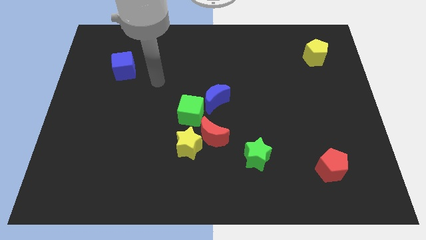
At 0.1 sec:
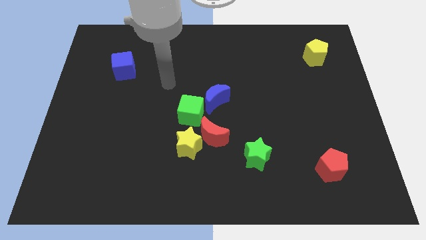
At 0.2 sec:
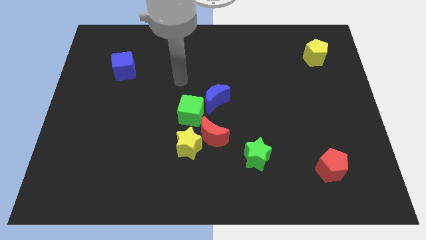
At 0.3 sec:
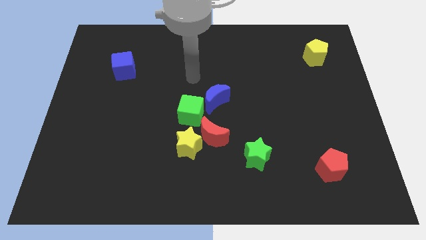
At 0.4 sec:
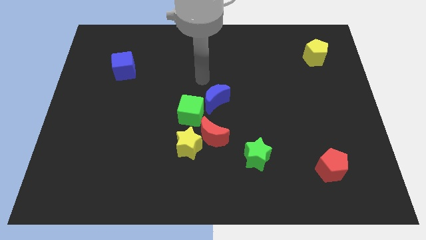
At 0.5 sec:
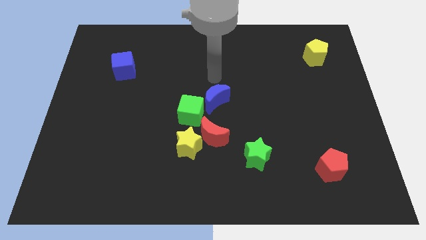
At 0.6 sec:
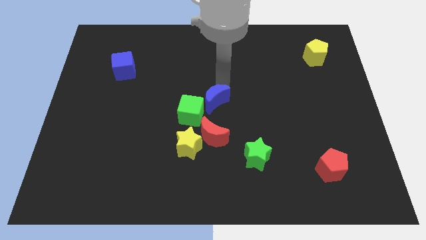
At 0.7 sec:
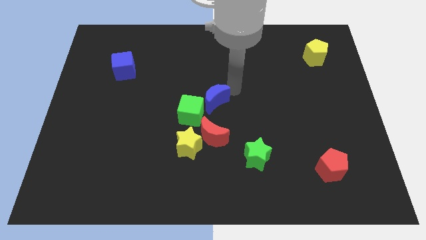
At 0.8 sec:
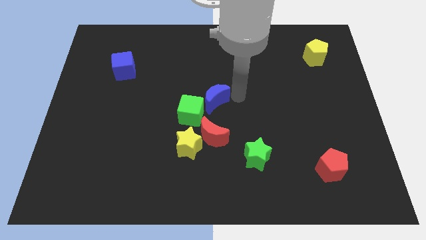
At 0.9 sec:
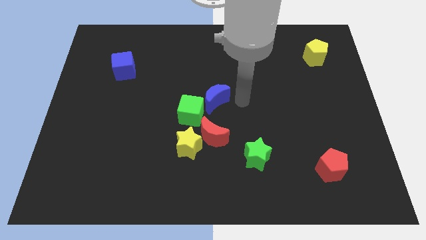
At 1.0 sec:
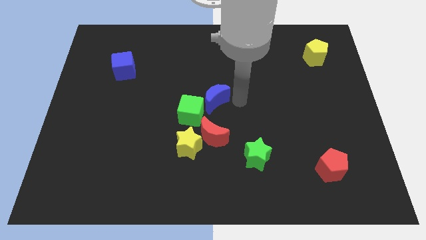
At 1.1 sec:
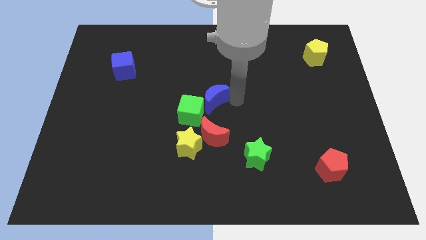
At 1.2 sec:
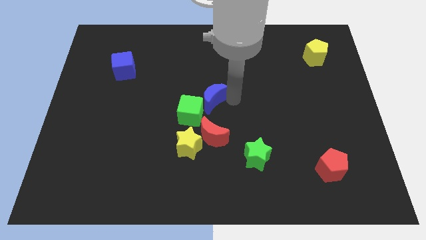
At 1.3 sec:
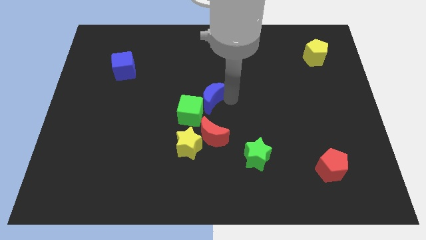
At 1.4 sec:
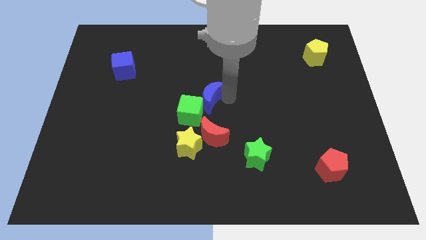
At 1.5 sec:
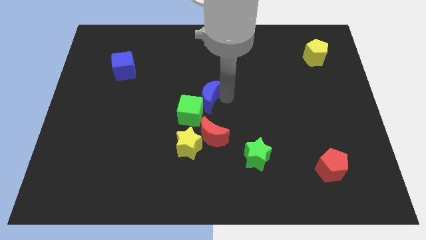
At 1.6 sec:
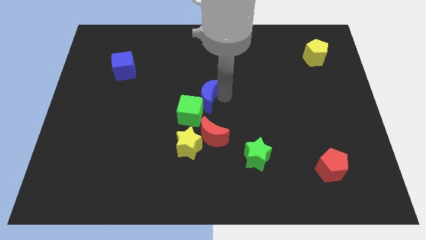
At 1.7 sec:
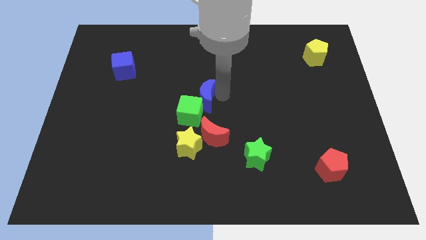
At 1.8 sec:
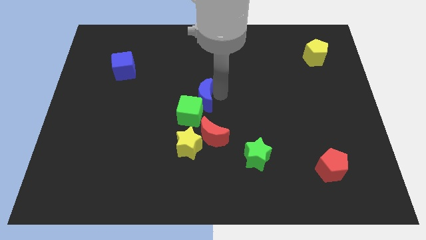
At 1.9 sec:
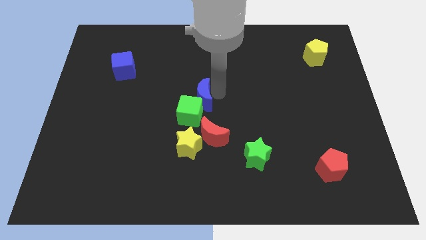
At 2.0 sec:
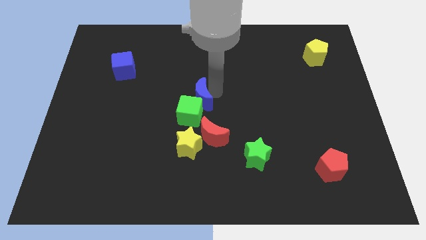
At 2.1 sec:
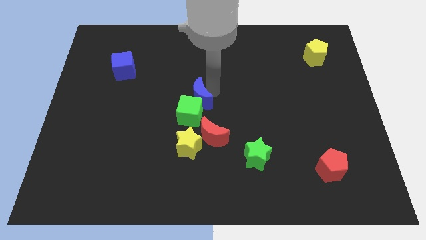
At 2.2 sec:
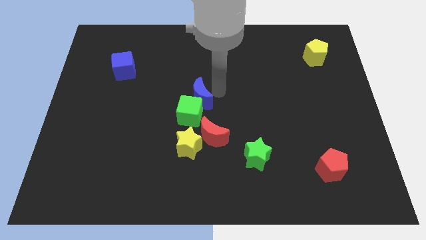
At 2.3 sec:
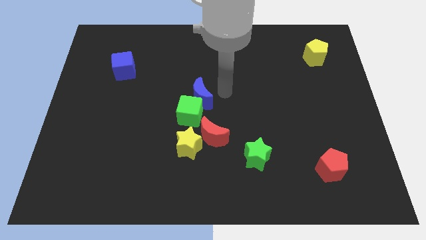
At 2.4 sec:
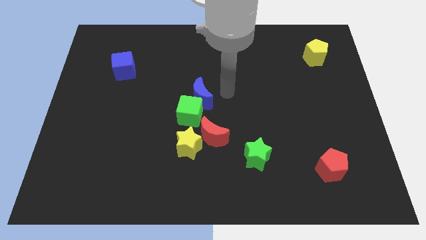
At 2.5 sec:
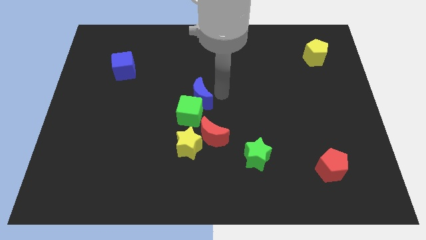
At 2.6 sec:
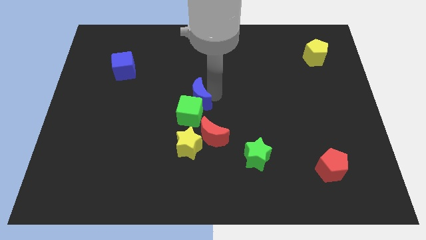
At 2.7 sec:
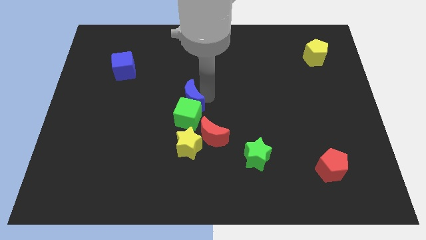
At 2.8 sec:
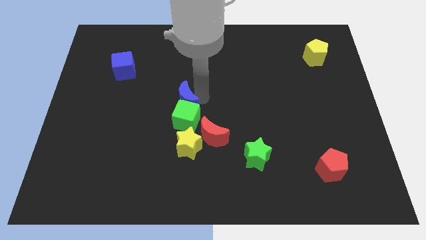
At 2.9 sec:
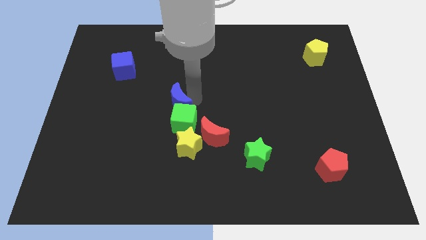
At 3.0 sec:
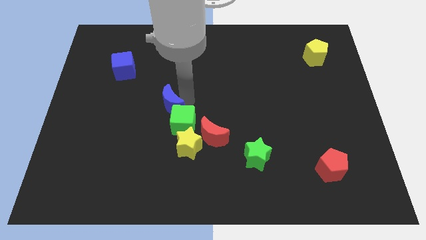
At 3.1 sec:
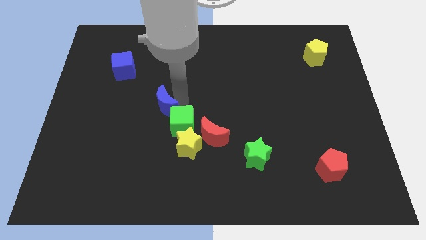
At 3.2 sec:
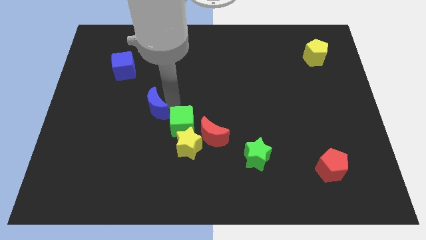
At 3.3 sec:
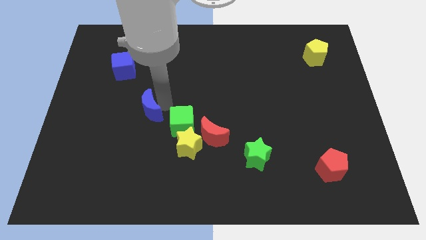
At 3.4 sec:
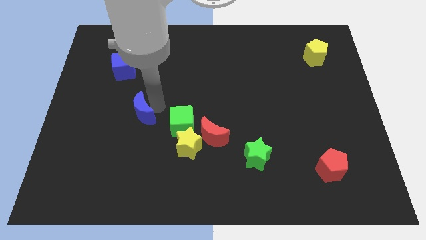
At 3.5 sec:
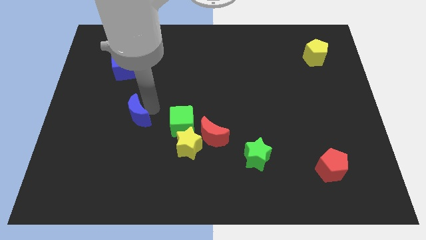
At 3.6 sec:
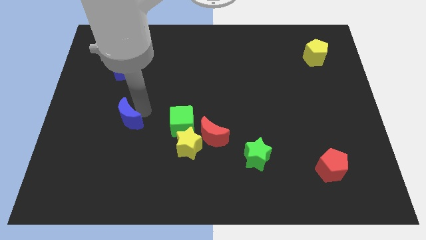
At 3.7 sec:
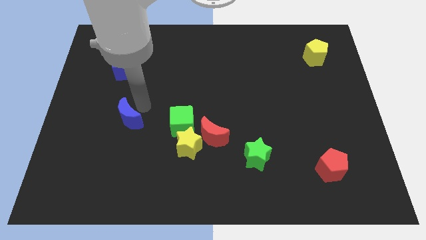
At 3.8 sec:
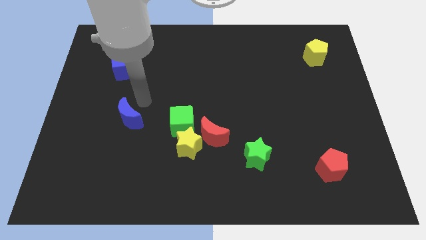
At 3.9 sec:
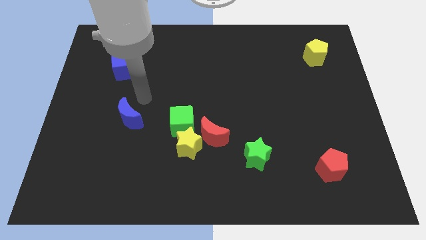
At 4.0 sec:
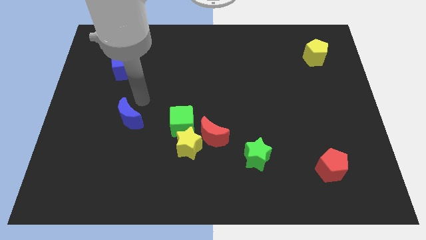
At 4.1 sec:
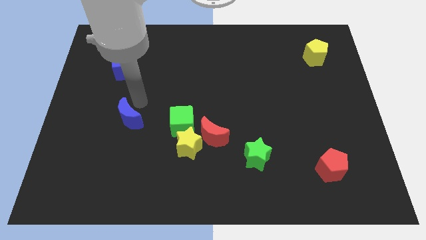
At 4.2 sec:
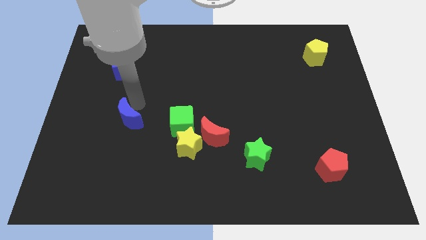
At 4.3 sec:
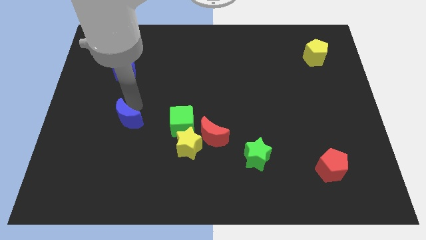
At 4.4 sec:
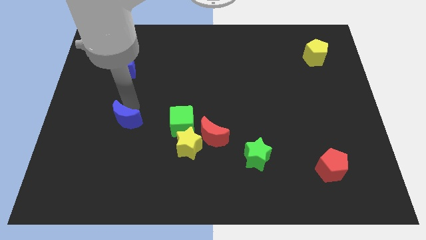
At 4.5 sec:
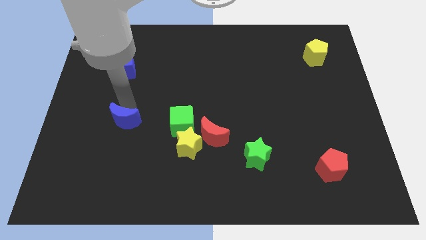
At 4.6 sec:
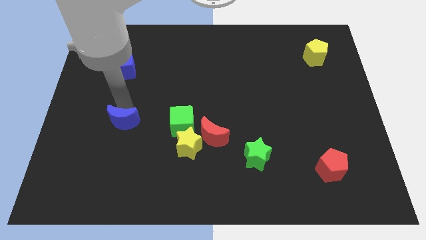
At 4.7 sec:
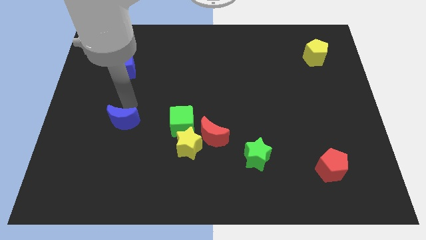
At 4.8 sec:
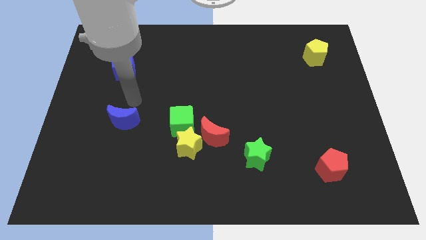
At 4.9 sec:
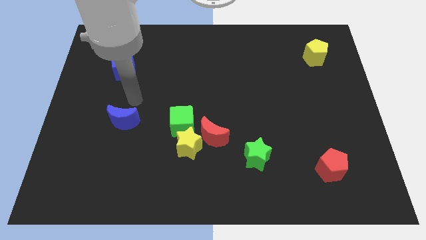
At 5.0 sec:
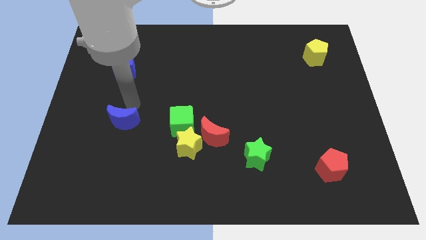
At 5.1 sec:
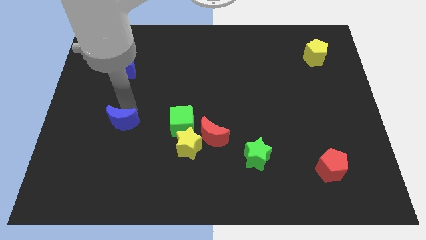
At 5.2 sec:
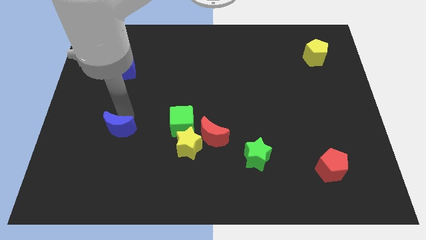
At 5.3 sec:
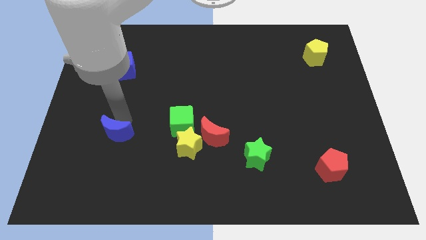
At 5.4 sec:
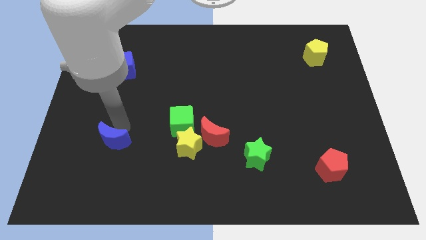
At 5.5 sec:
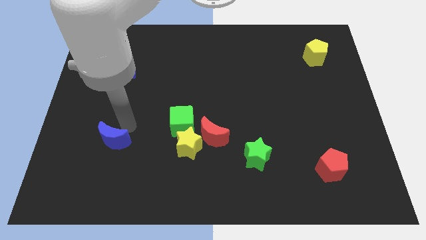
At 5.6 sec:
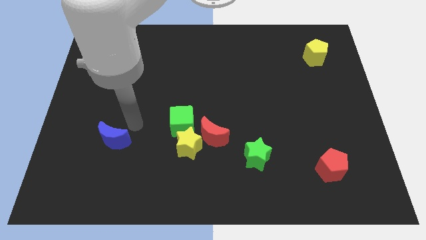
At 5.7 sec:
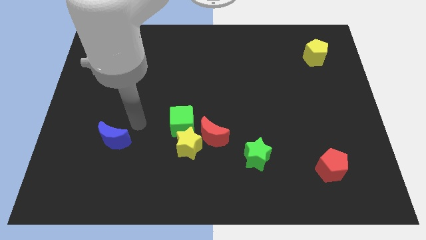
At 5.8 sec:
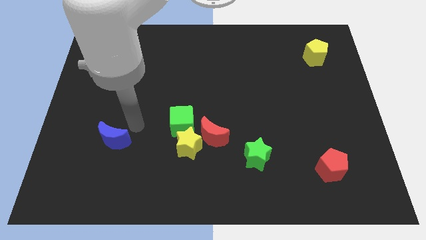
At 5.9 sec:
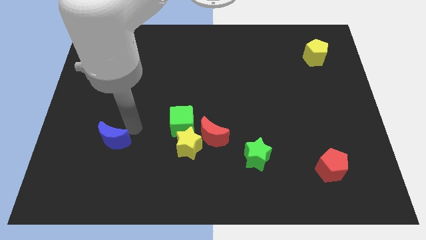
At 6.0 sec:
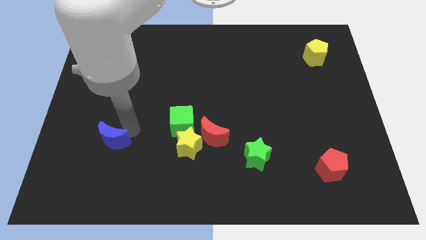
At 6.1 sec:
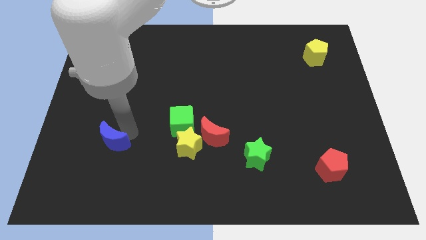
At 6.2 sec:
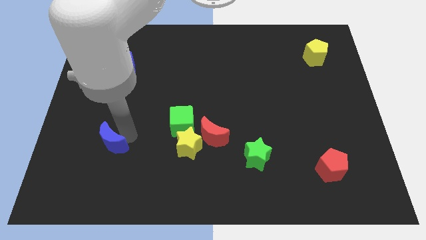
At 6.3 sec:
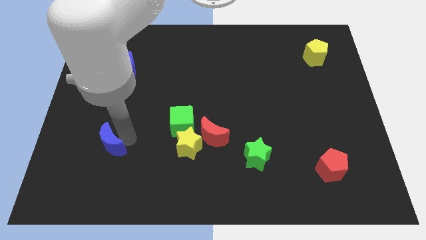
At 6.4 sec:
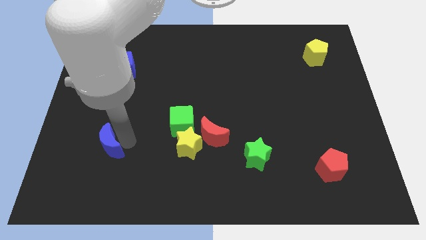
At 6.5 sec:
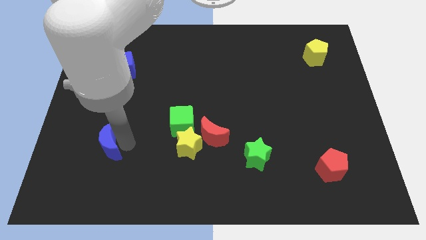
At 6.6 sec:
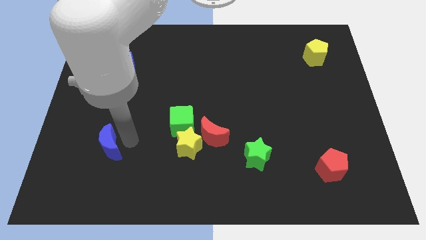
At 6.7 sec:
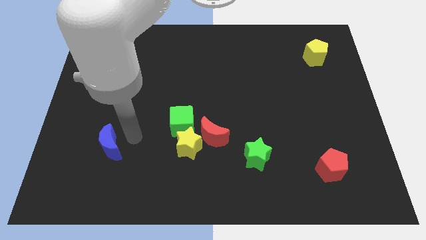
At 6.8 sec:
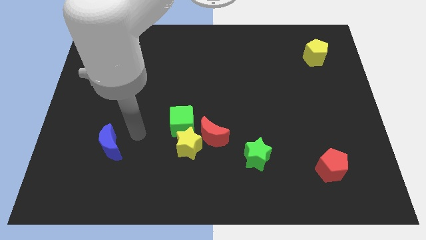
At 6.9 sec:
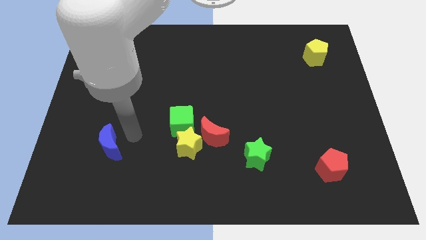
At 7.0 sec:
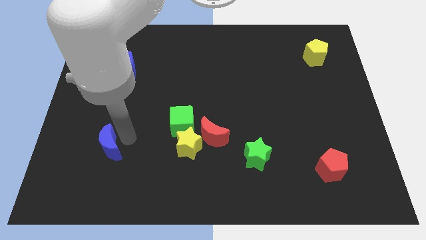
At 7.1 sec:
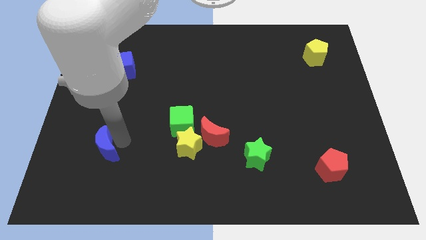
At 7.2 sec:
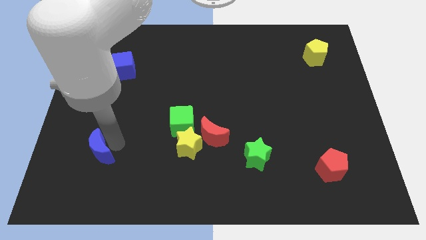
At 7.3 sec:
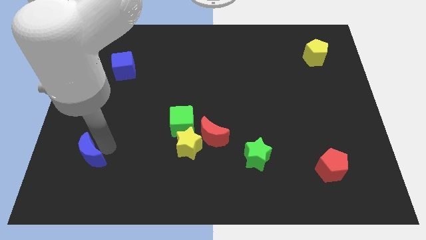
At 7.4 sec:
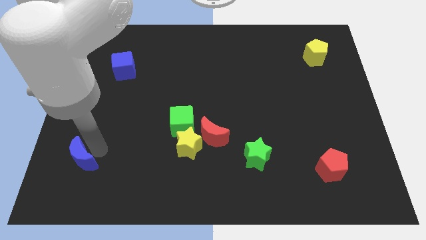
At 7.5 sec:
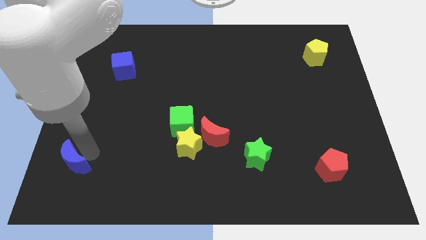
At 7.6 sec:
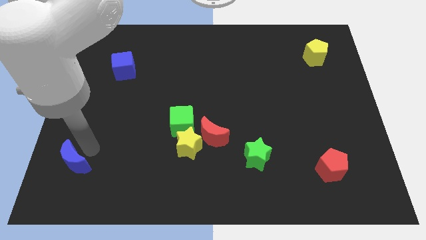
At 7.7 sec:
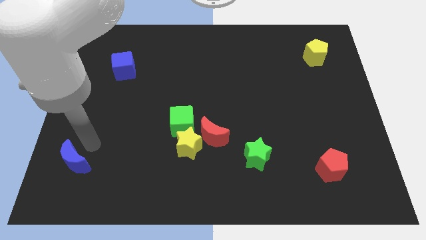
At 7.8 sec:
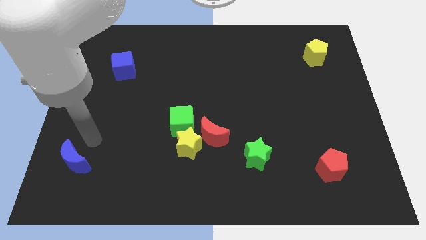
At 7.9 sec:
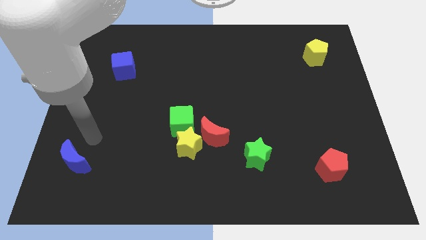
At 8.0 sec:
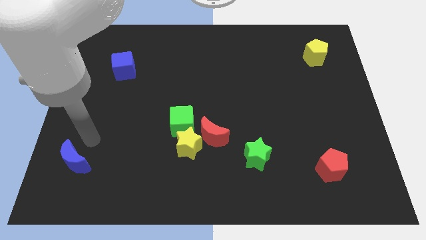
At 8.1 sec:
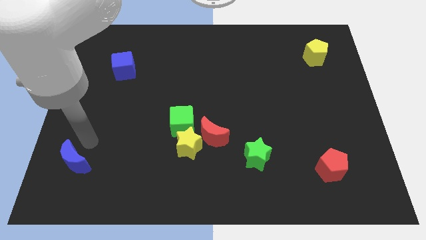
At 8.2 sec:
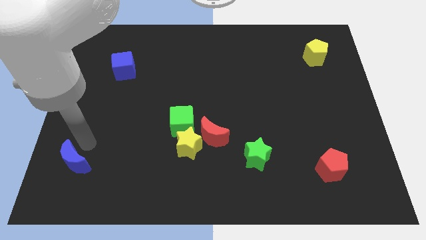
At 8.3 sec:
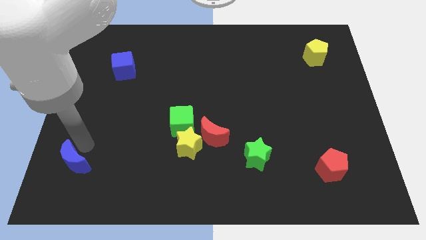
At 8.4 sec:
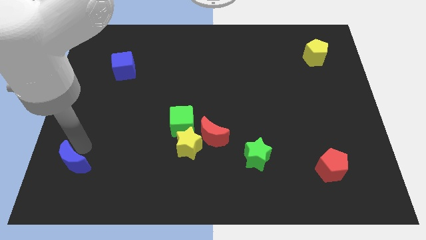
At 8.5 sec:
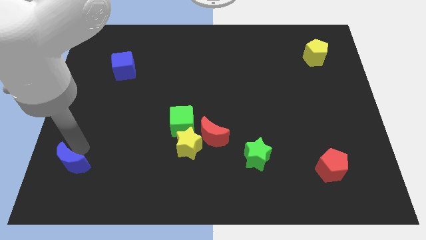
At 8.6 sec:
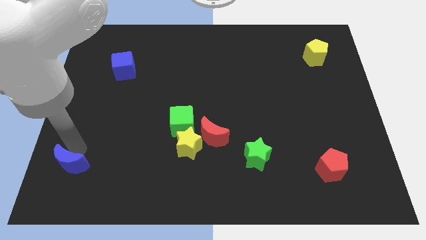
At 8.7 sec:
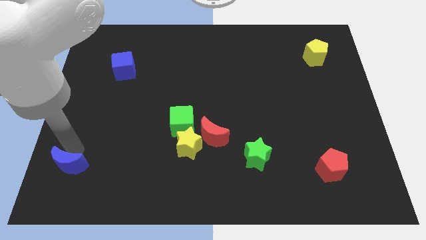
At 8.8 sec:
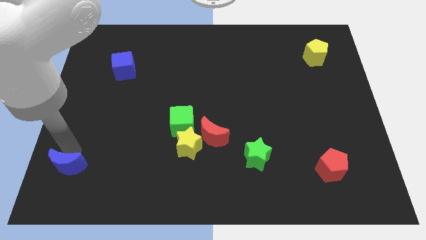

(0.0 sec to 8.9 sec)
move the blue moon to the bottom left corner
